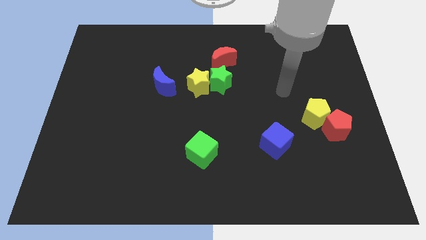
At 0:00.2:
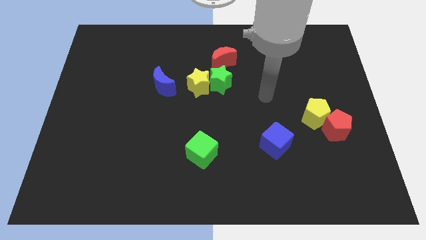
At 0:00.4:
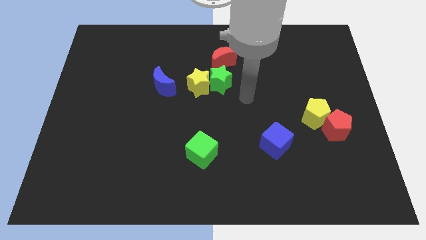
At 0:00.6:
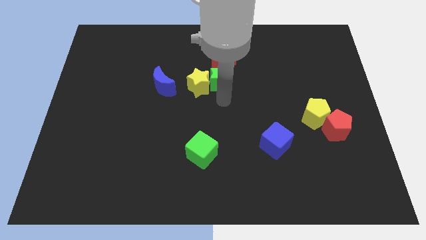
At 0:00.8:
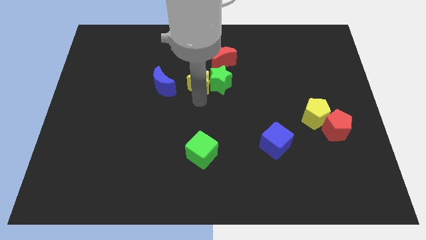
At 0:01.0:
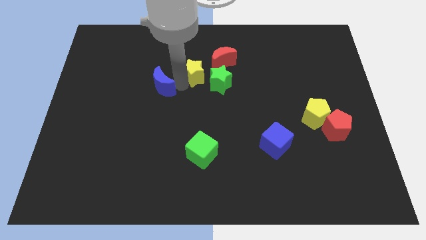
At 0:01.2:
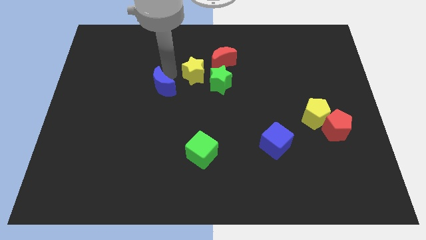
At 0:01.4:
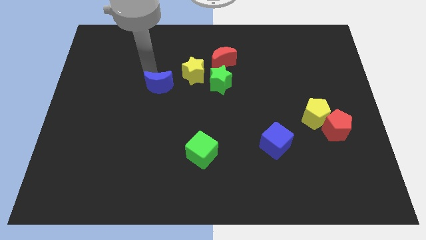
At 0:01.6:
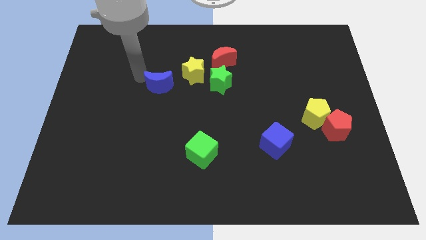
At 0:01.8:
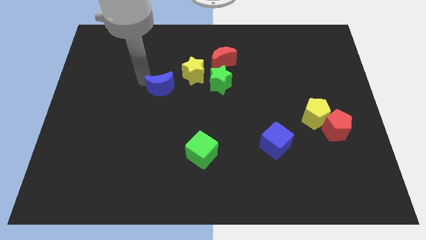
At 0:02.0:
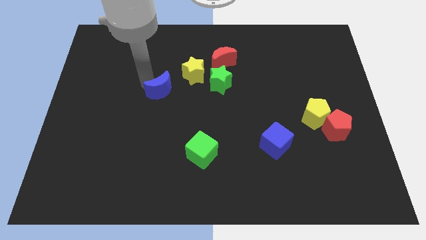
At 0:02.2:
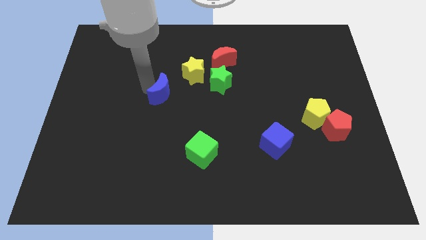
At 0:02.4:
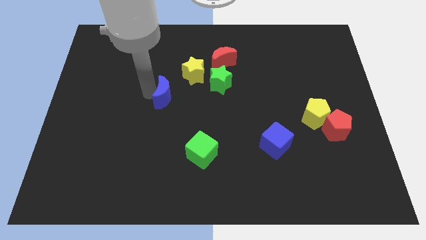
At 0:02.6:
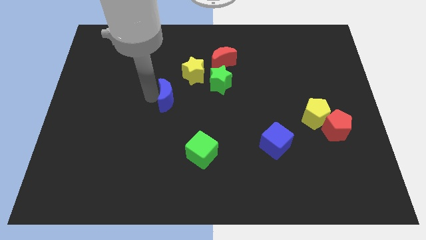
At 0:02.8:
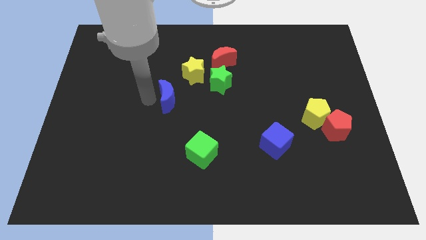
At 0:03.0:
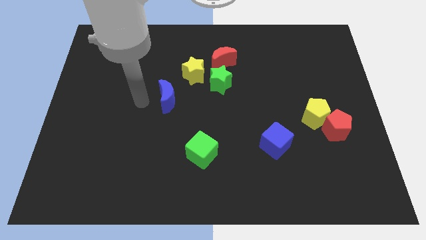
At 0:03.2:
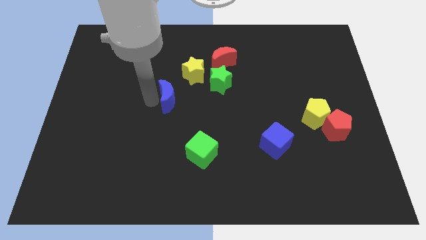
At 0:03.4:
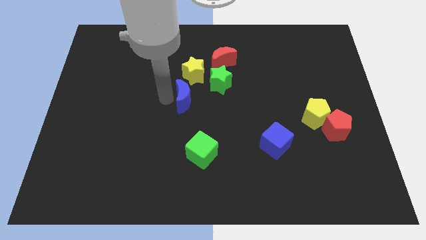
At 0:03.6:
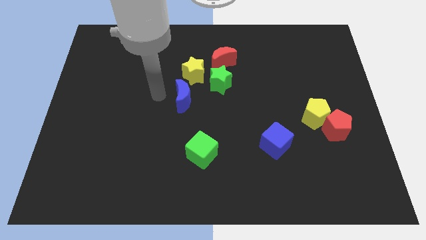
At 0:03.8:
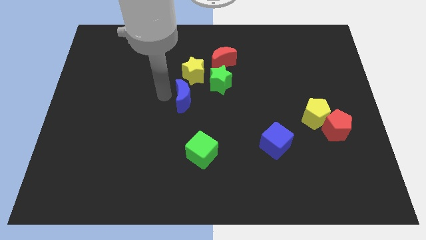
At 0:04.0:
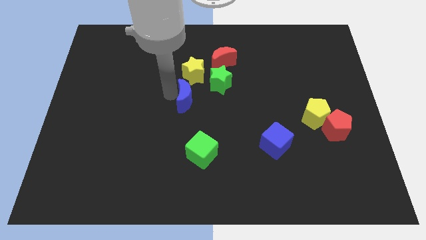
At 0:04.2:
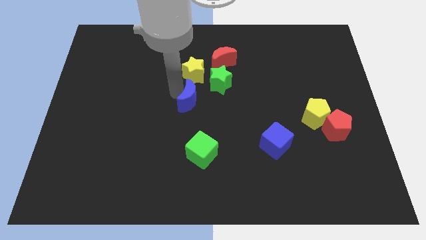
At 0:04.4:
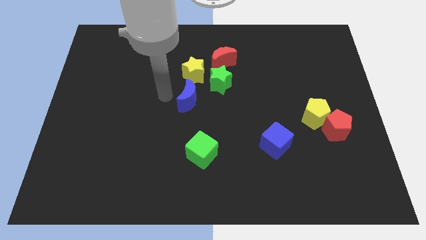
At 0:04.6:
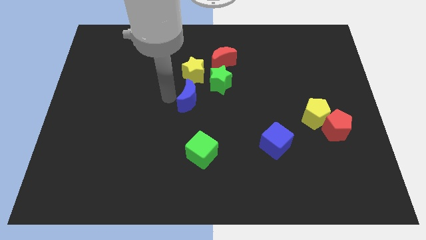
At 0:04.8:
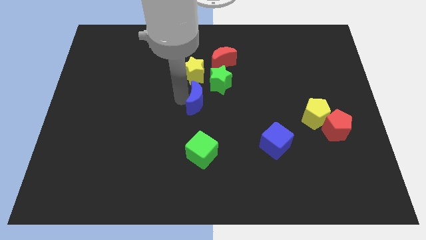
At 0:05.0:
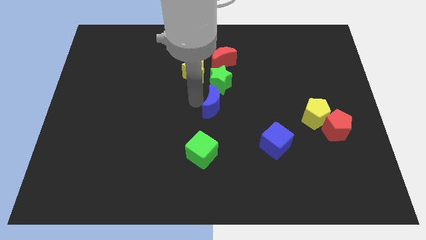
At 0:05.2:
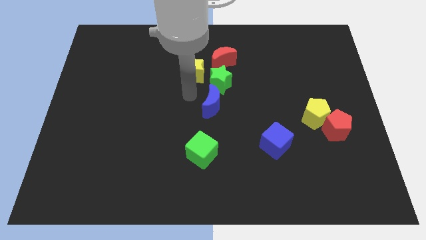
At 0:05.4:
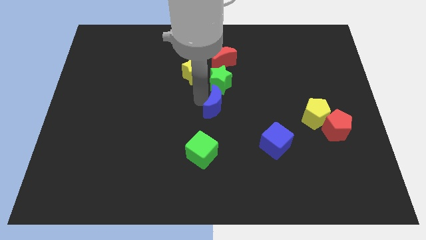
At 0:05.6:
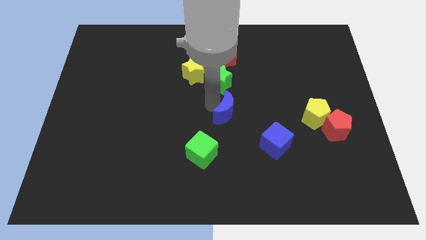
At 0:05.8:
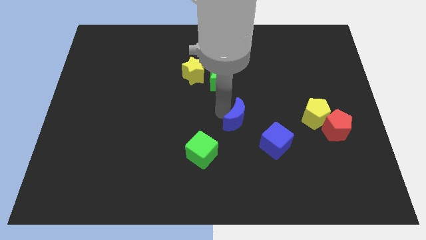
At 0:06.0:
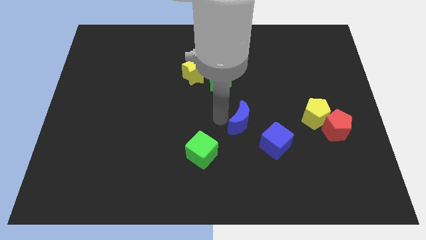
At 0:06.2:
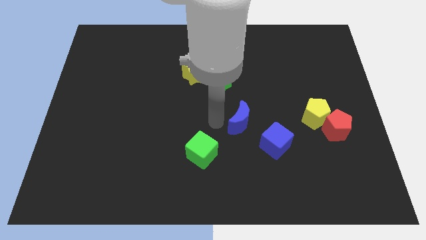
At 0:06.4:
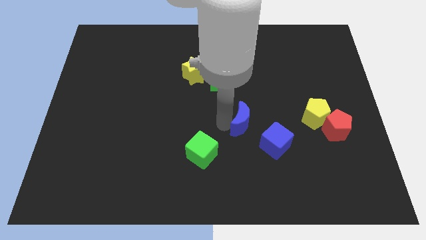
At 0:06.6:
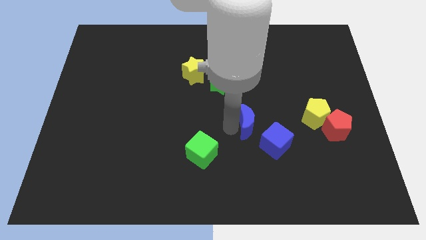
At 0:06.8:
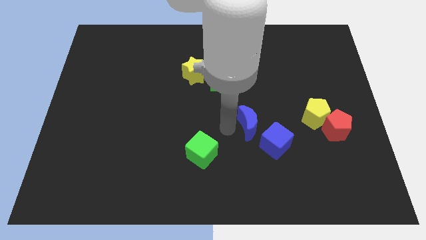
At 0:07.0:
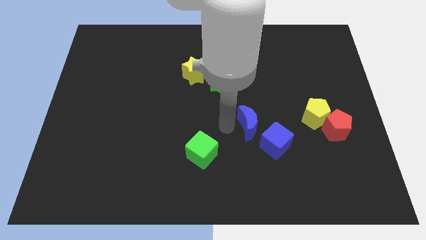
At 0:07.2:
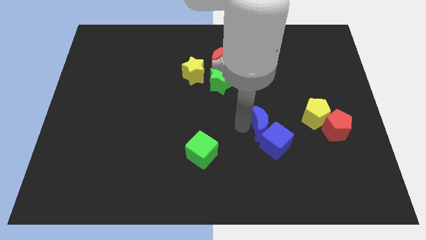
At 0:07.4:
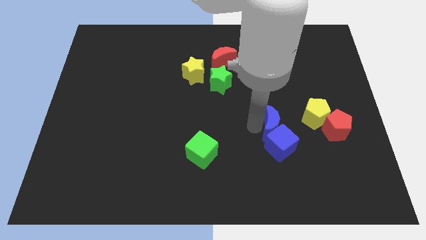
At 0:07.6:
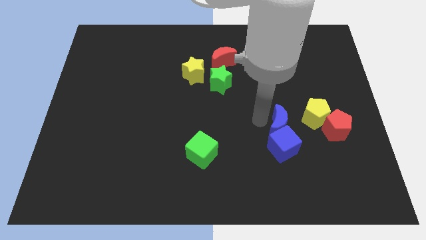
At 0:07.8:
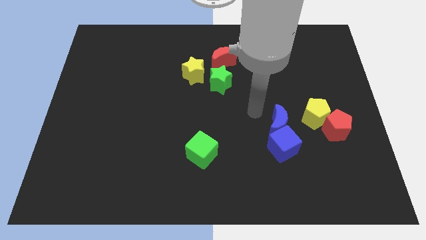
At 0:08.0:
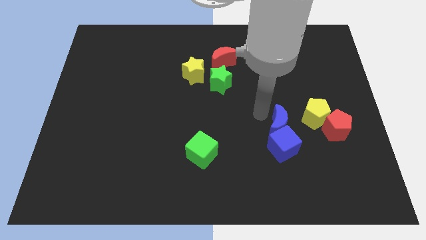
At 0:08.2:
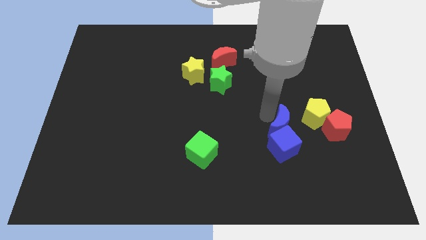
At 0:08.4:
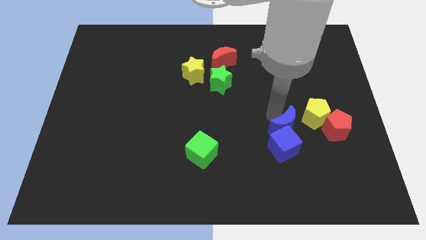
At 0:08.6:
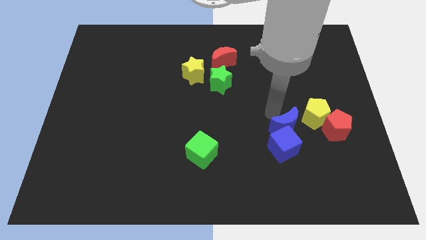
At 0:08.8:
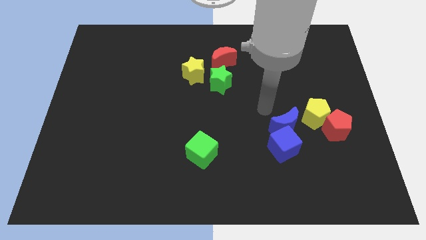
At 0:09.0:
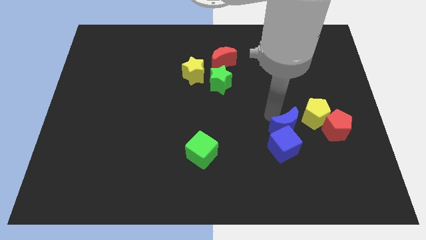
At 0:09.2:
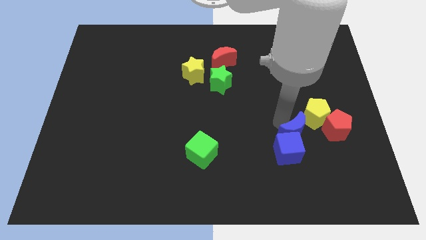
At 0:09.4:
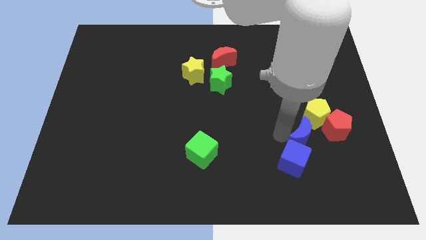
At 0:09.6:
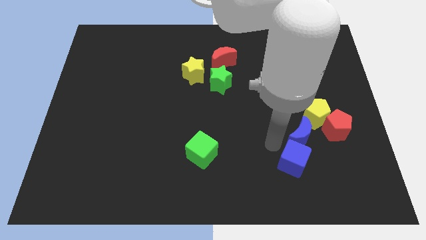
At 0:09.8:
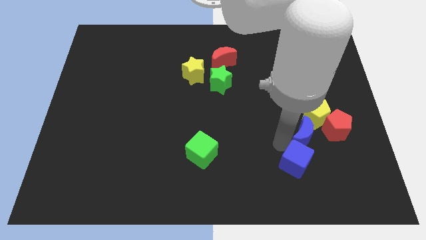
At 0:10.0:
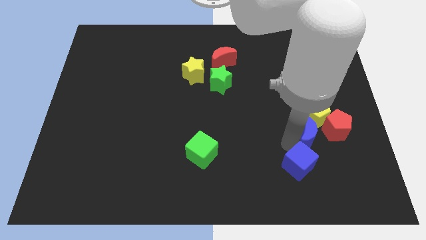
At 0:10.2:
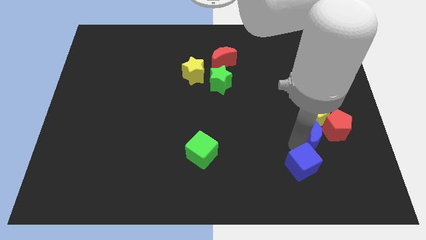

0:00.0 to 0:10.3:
slide the blue moon next to the red pentagon

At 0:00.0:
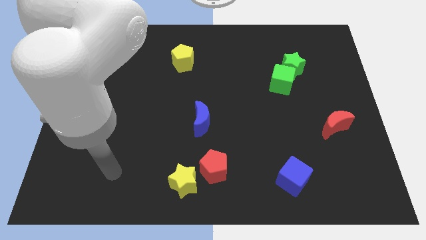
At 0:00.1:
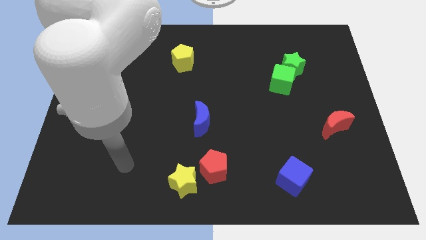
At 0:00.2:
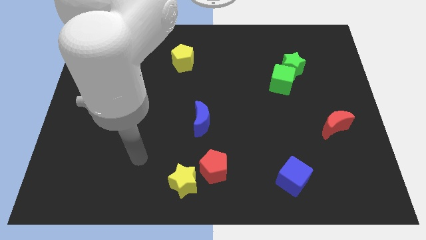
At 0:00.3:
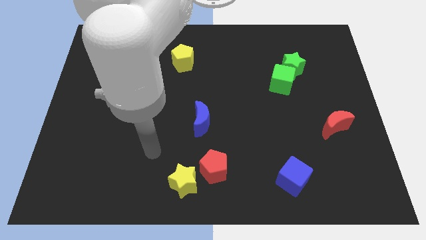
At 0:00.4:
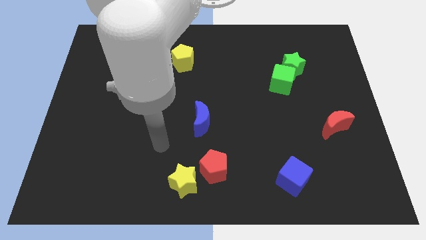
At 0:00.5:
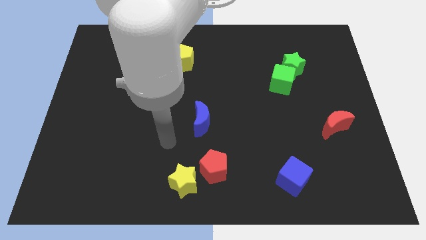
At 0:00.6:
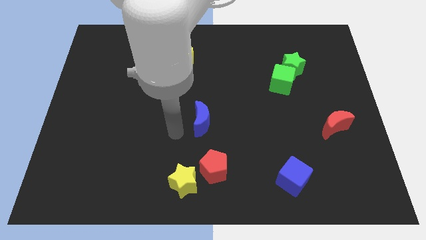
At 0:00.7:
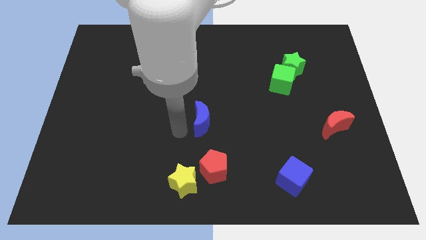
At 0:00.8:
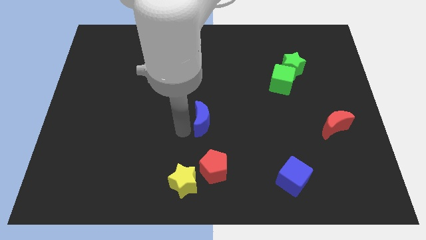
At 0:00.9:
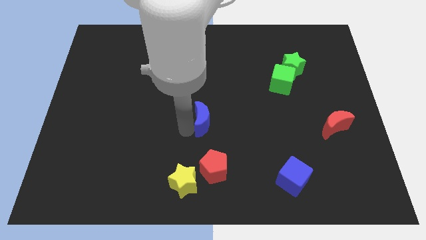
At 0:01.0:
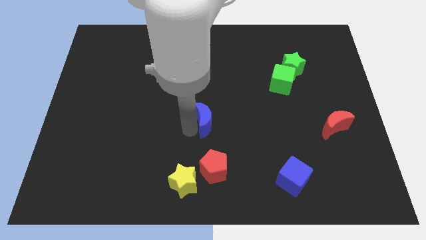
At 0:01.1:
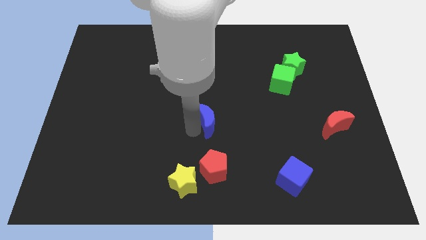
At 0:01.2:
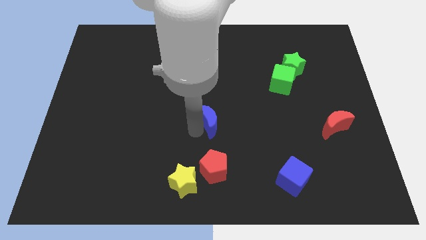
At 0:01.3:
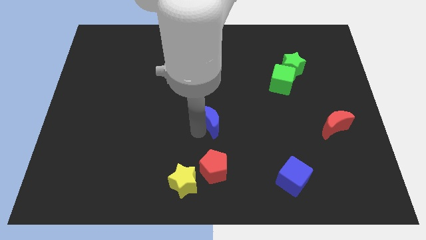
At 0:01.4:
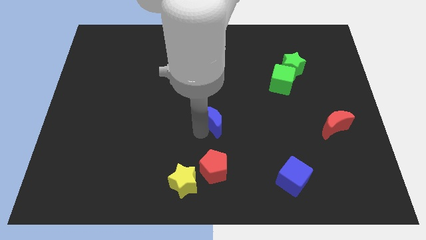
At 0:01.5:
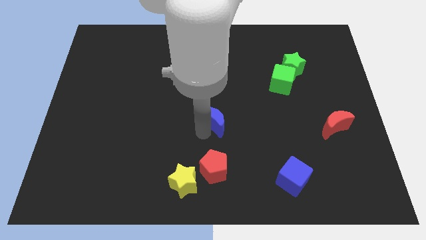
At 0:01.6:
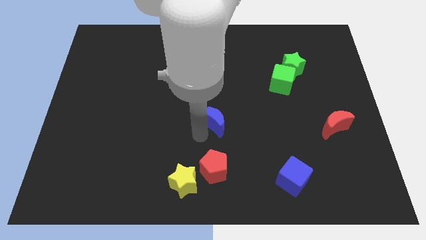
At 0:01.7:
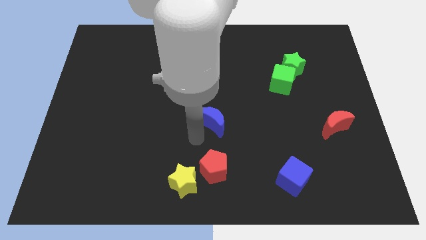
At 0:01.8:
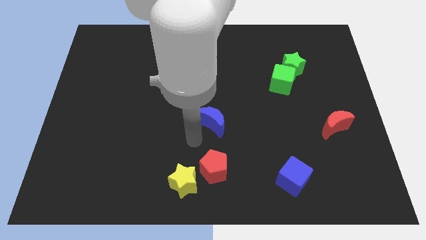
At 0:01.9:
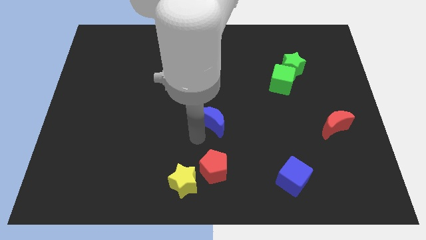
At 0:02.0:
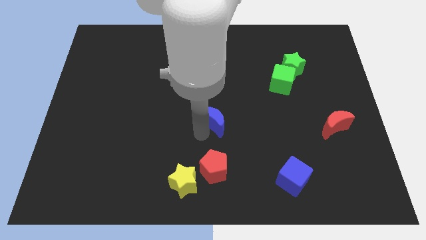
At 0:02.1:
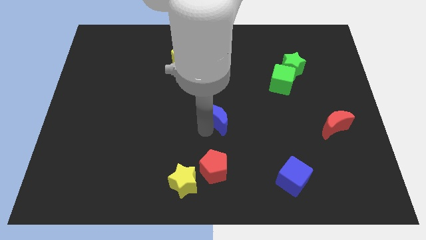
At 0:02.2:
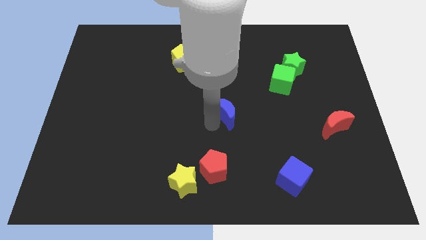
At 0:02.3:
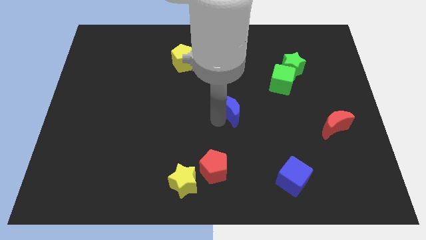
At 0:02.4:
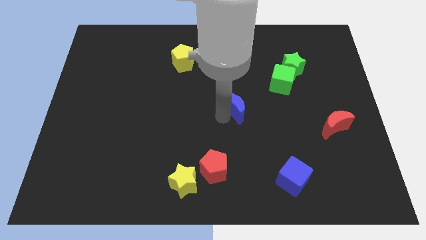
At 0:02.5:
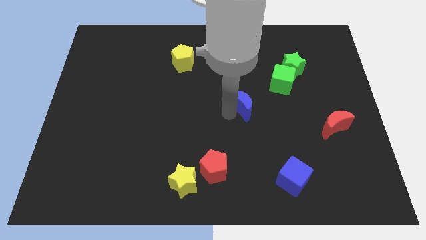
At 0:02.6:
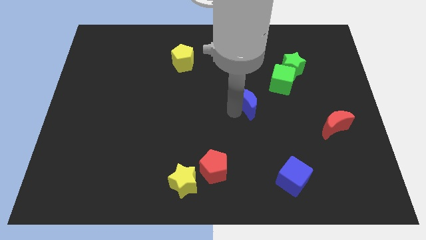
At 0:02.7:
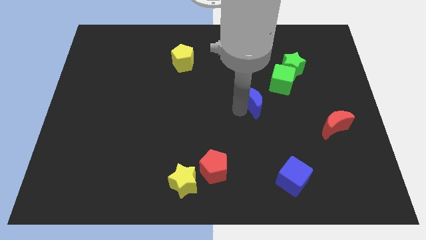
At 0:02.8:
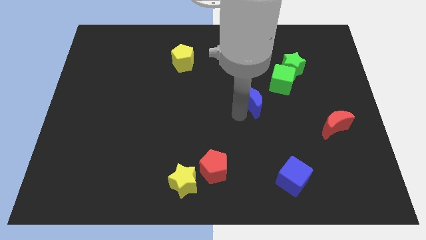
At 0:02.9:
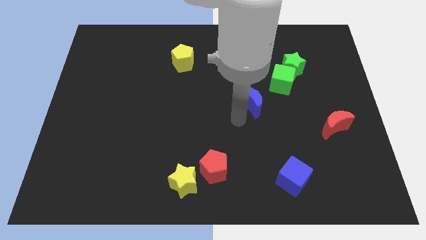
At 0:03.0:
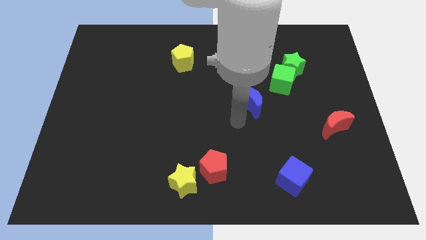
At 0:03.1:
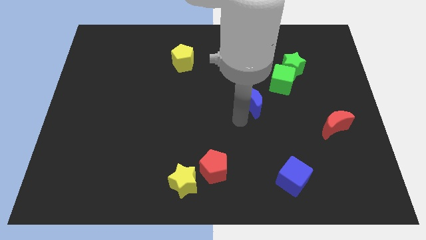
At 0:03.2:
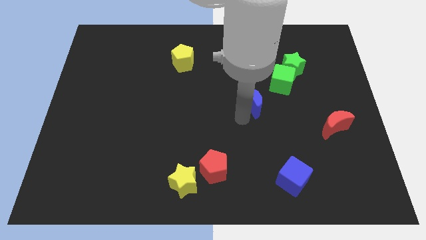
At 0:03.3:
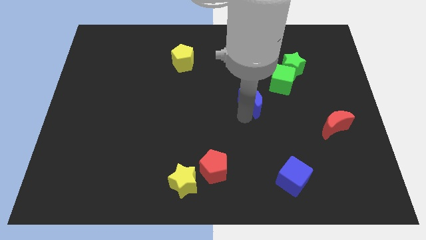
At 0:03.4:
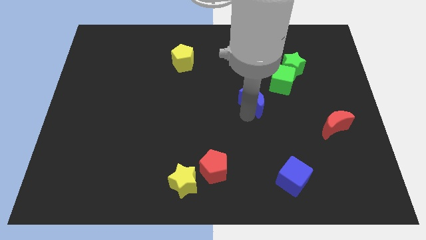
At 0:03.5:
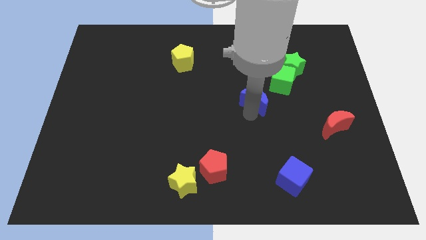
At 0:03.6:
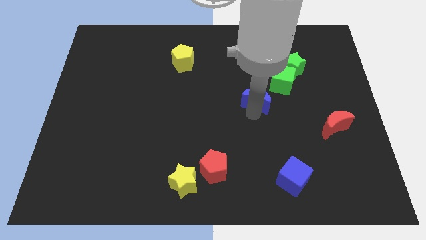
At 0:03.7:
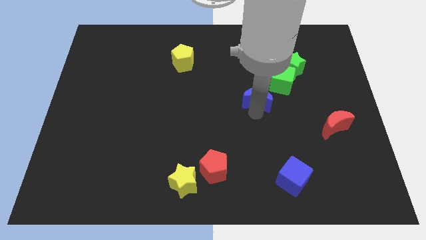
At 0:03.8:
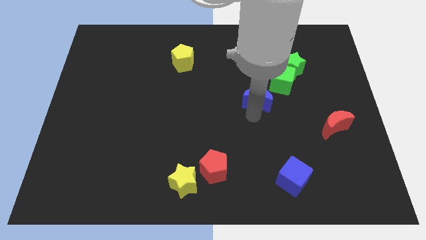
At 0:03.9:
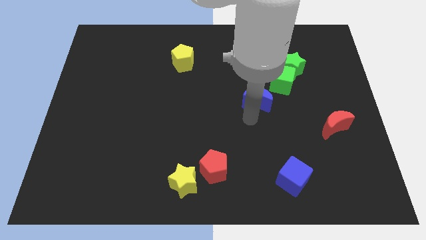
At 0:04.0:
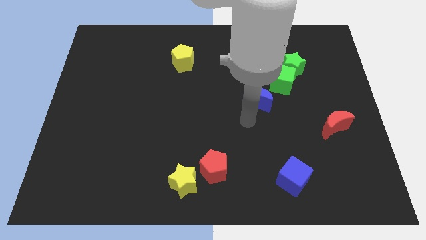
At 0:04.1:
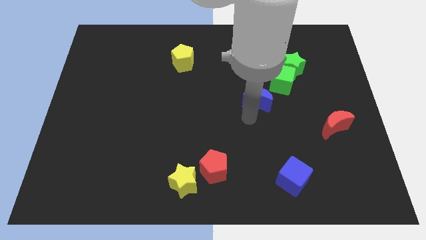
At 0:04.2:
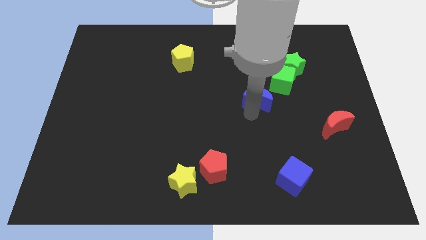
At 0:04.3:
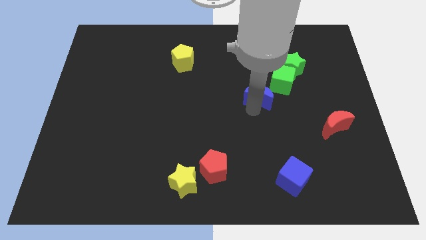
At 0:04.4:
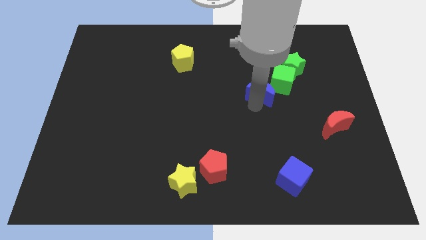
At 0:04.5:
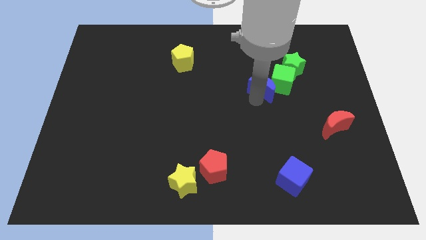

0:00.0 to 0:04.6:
slide the blue moon next to the green cube
